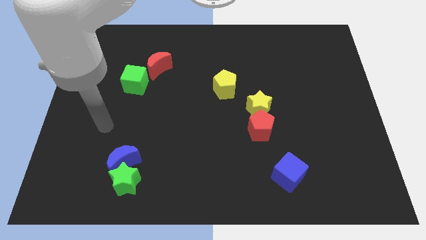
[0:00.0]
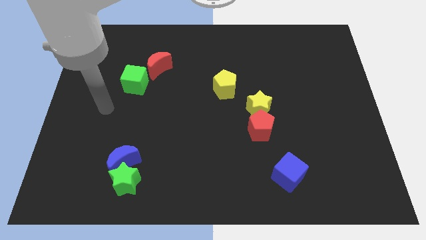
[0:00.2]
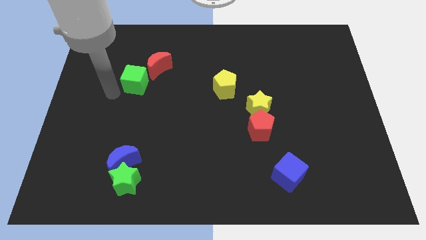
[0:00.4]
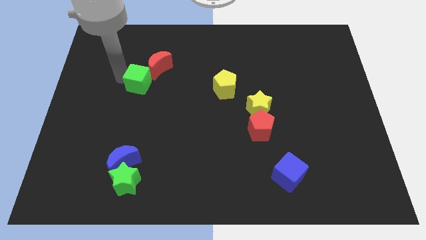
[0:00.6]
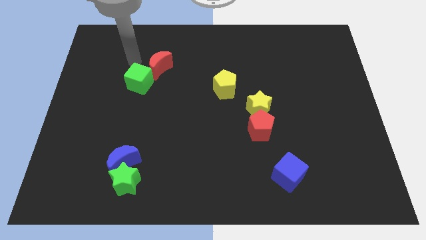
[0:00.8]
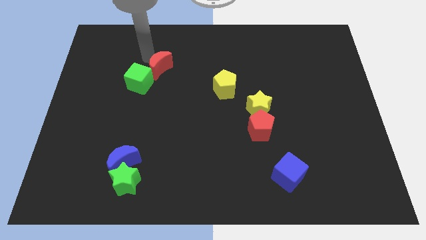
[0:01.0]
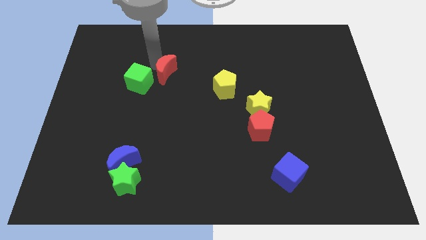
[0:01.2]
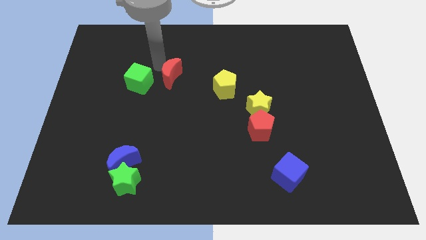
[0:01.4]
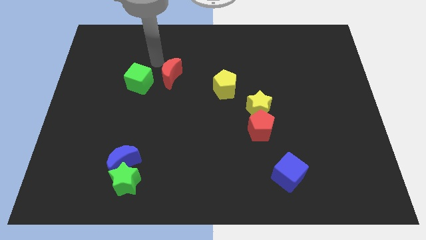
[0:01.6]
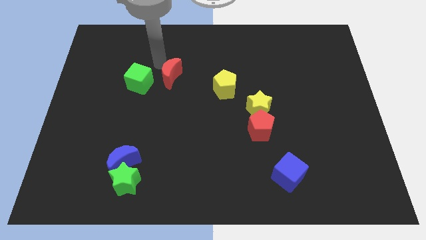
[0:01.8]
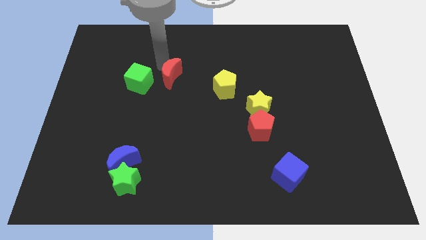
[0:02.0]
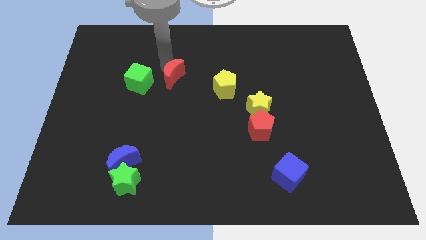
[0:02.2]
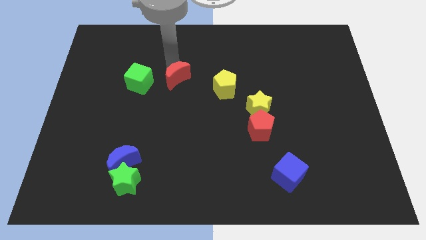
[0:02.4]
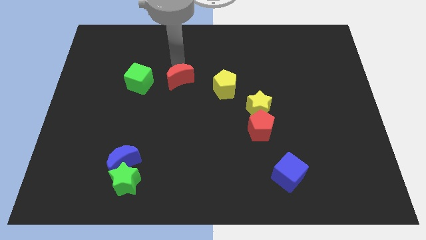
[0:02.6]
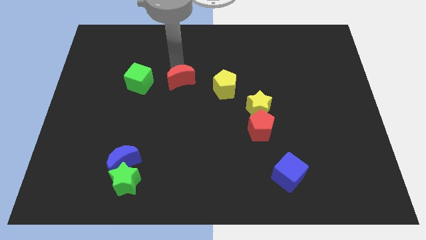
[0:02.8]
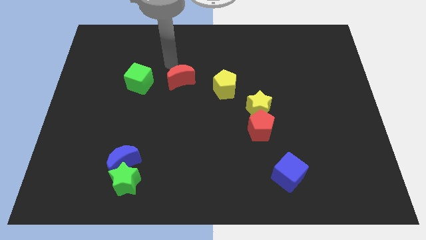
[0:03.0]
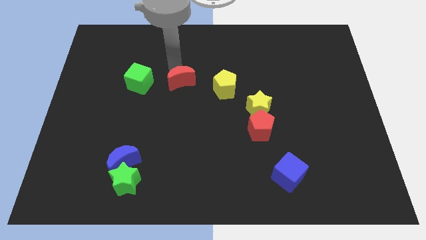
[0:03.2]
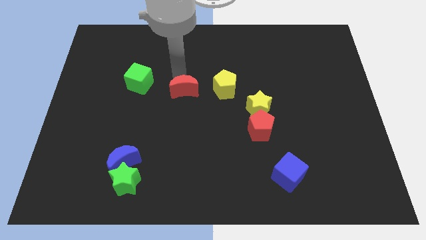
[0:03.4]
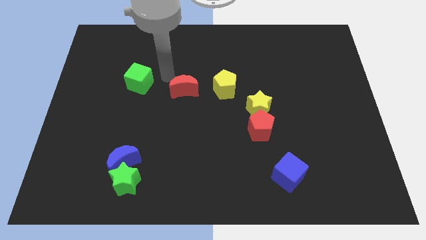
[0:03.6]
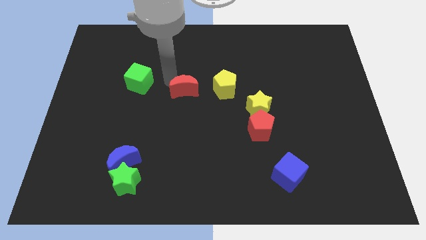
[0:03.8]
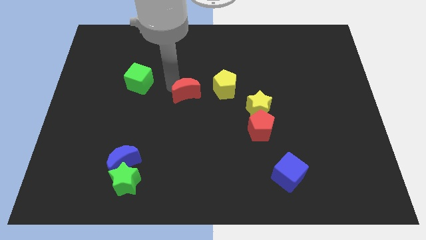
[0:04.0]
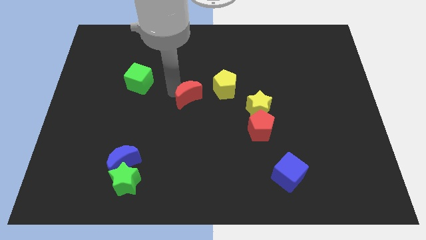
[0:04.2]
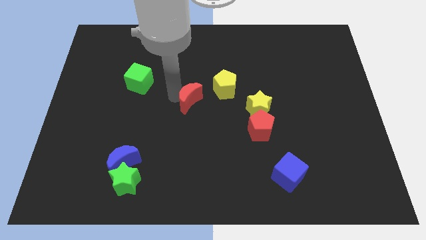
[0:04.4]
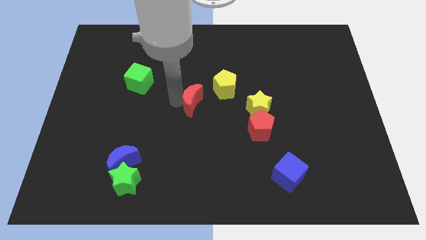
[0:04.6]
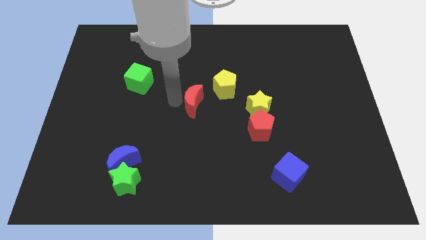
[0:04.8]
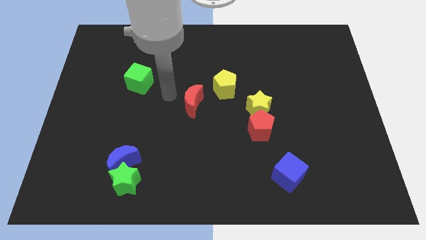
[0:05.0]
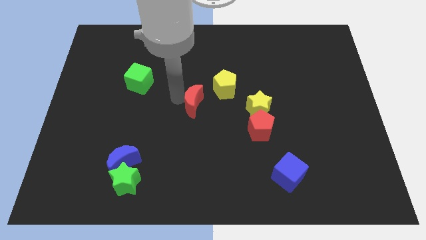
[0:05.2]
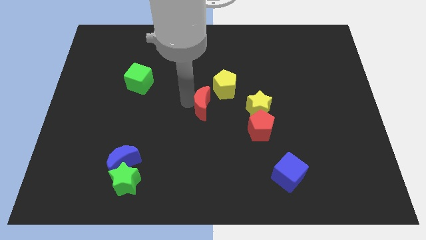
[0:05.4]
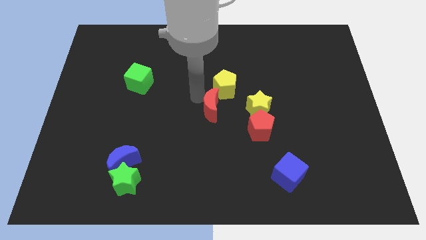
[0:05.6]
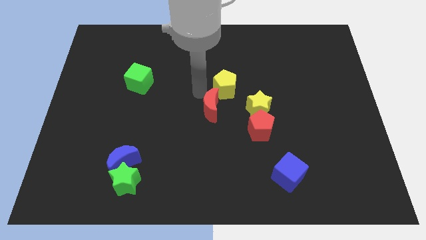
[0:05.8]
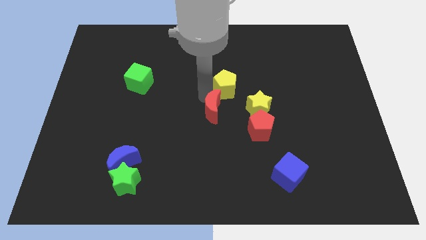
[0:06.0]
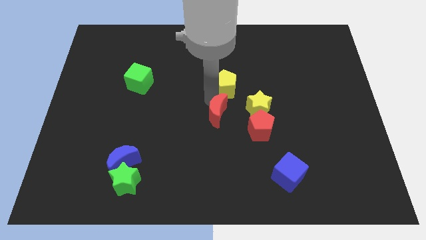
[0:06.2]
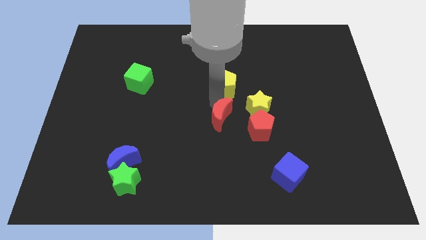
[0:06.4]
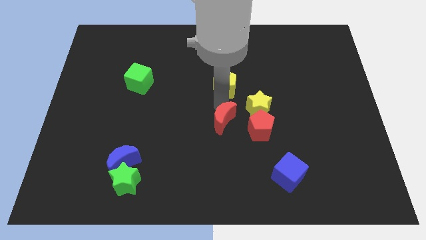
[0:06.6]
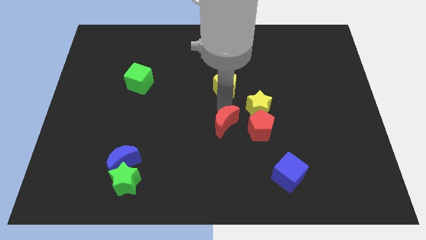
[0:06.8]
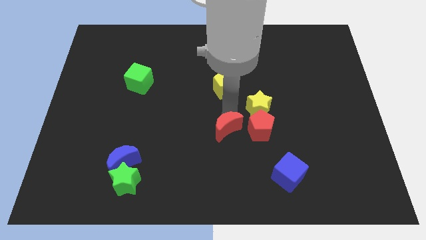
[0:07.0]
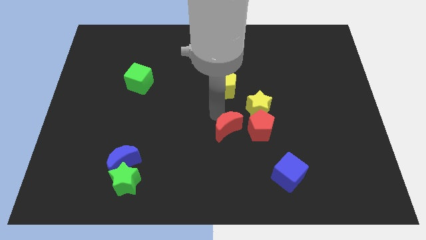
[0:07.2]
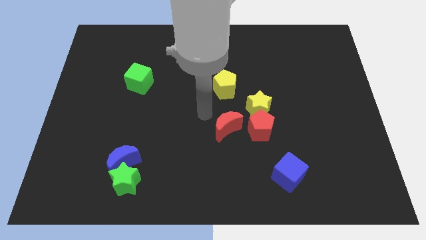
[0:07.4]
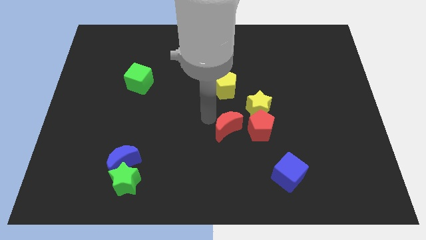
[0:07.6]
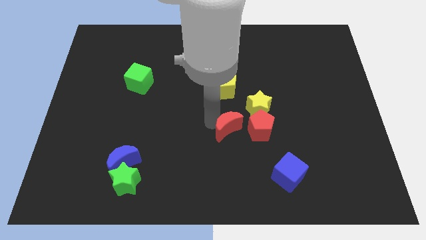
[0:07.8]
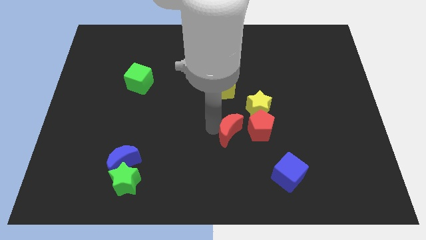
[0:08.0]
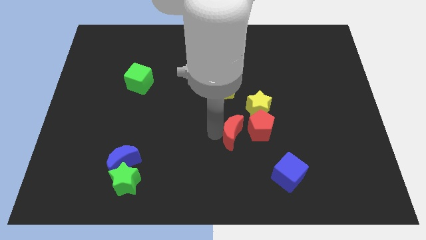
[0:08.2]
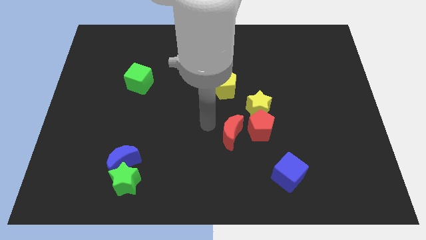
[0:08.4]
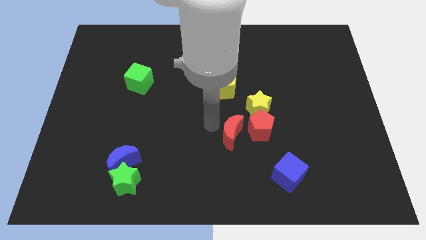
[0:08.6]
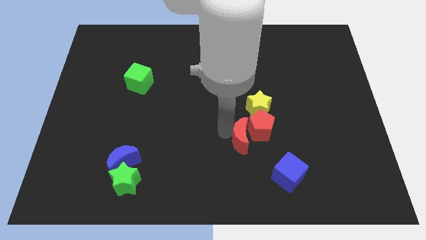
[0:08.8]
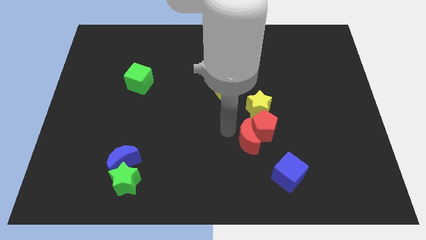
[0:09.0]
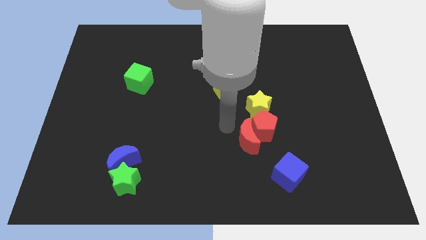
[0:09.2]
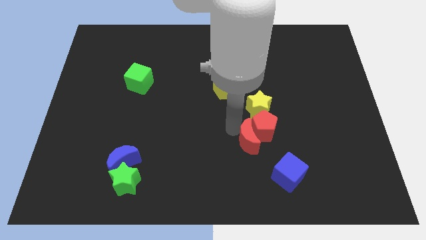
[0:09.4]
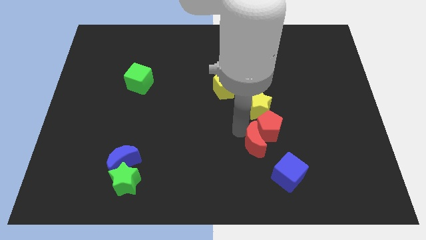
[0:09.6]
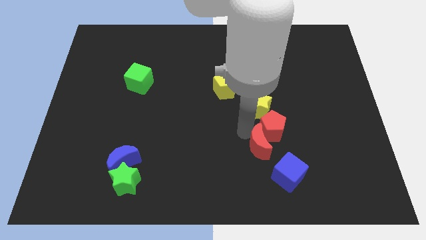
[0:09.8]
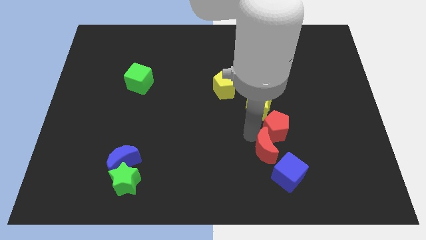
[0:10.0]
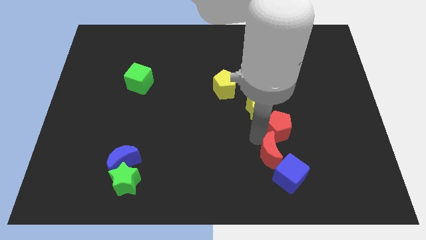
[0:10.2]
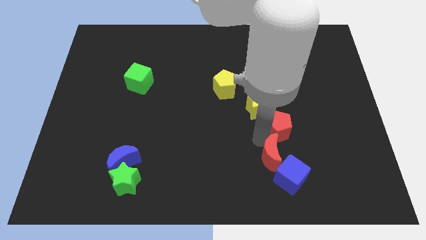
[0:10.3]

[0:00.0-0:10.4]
put the red moon close to the blue cube

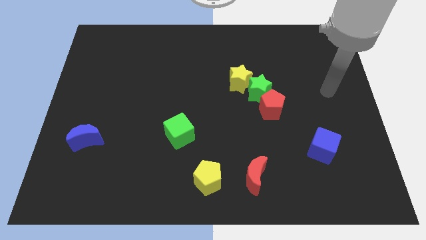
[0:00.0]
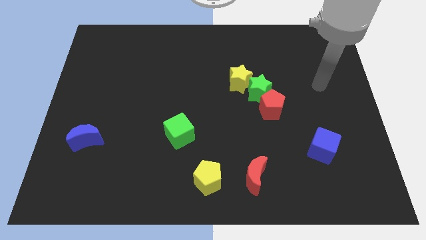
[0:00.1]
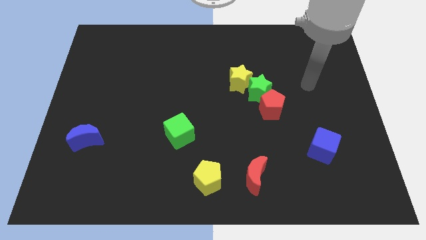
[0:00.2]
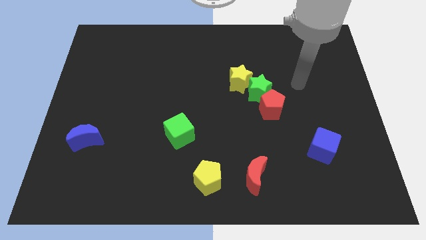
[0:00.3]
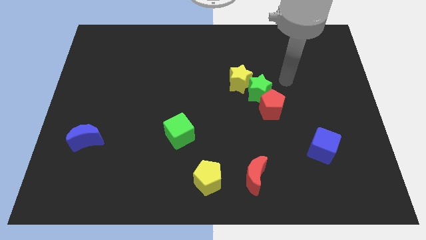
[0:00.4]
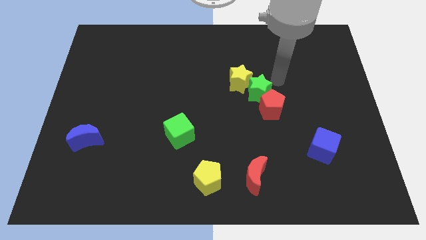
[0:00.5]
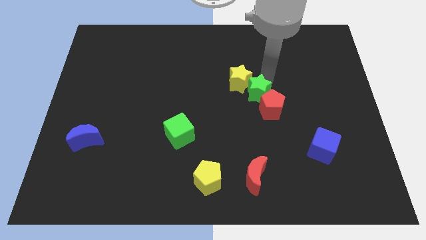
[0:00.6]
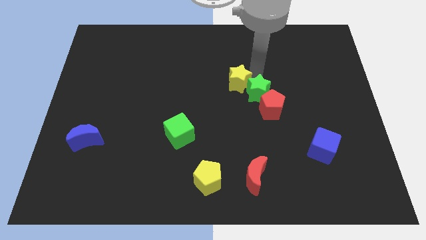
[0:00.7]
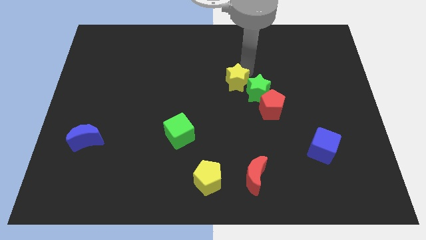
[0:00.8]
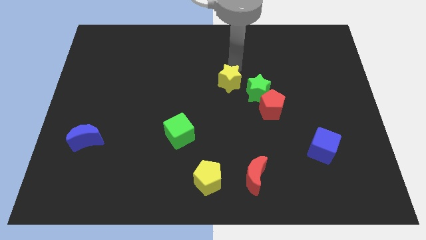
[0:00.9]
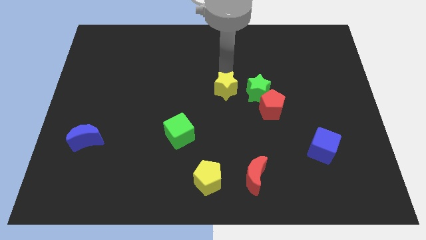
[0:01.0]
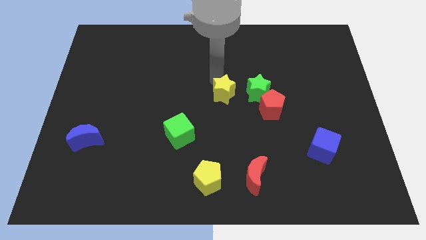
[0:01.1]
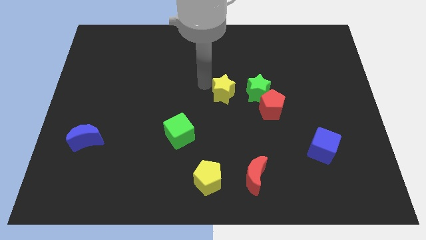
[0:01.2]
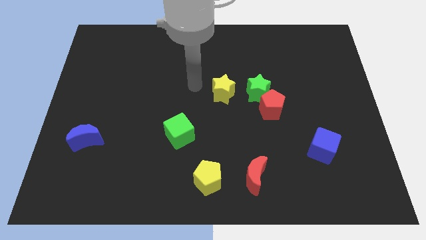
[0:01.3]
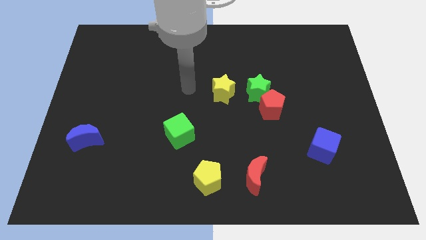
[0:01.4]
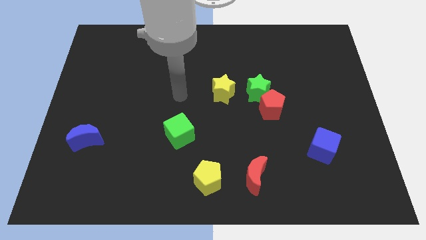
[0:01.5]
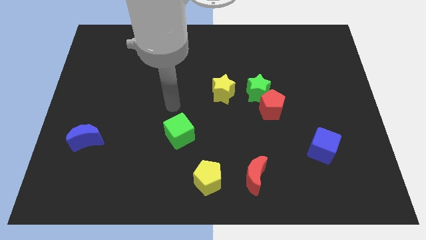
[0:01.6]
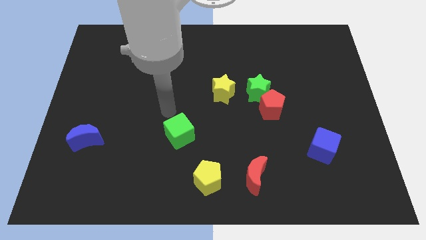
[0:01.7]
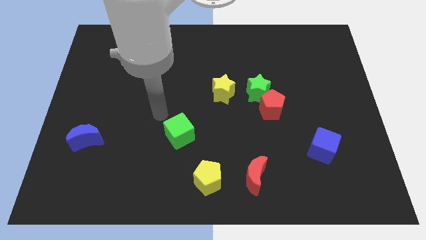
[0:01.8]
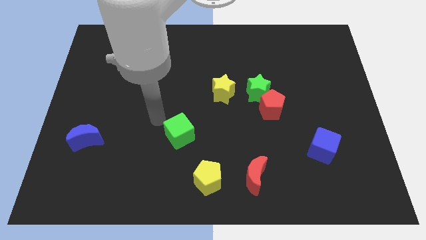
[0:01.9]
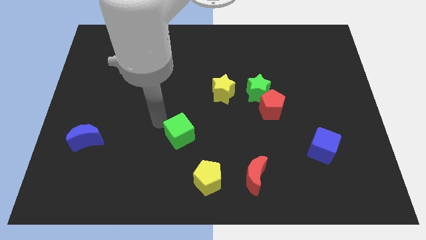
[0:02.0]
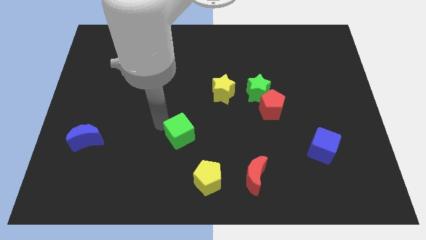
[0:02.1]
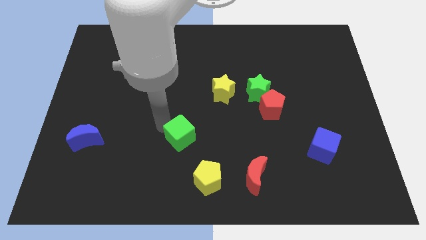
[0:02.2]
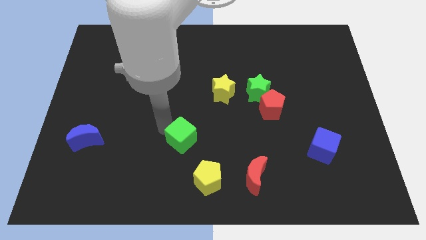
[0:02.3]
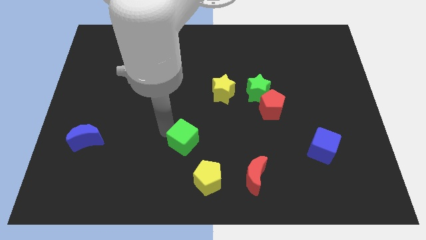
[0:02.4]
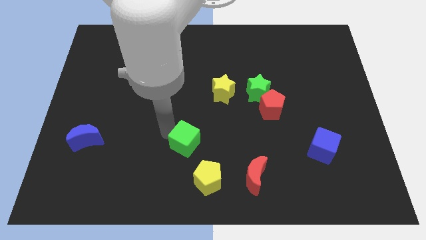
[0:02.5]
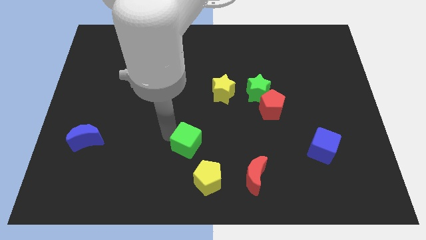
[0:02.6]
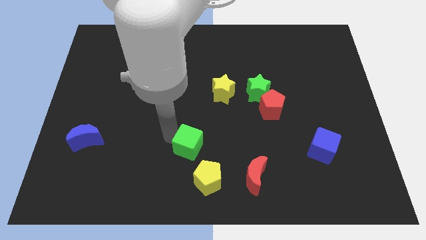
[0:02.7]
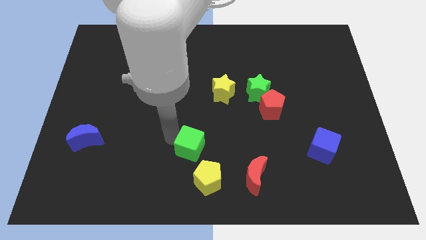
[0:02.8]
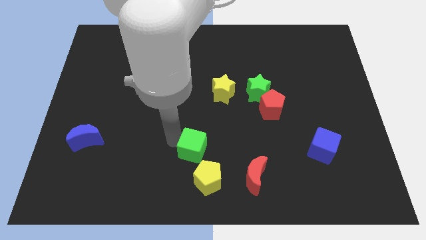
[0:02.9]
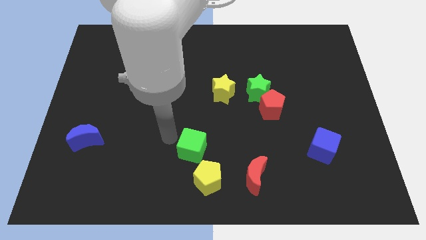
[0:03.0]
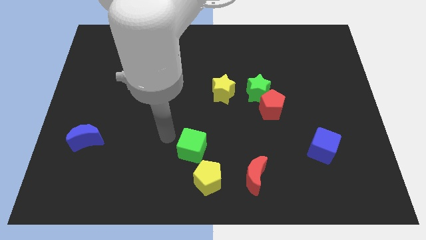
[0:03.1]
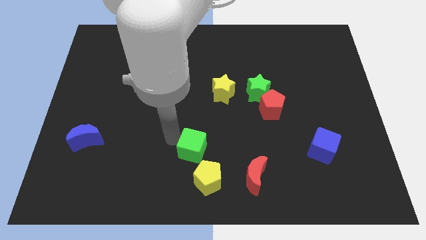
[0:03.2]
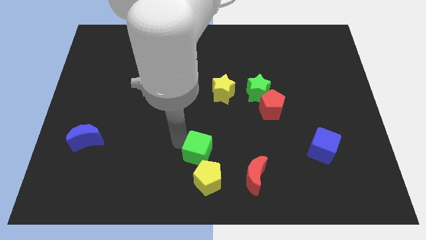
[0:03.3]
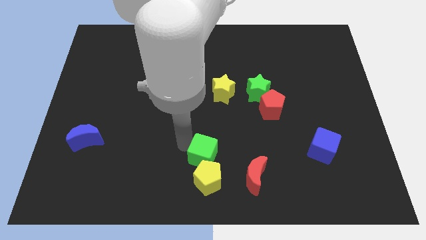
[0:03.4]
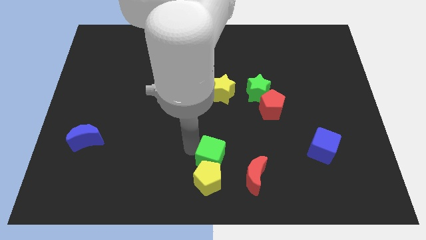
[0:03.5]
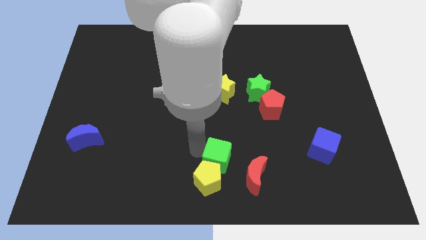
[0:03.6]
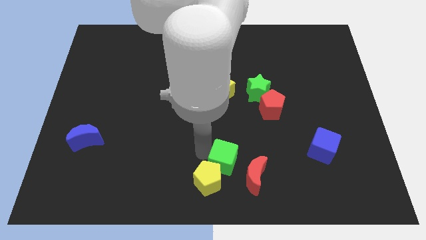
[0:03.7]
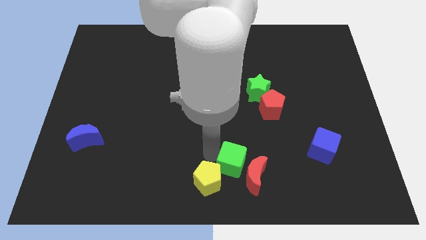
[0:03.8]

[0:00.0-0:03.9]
move the green cube close to the red moon
